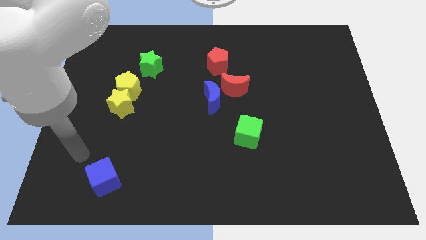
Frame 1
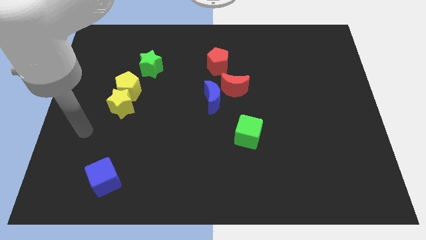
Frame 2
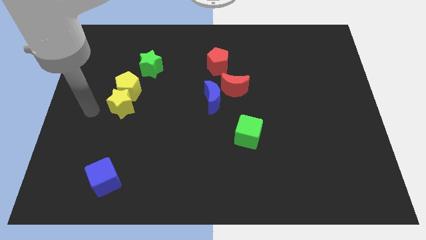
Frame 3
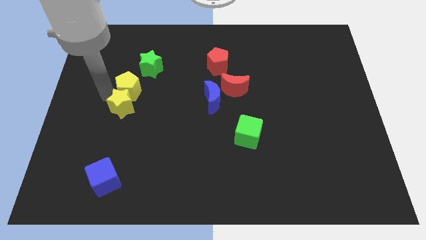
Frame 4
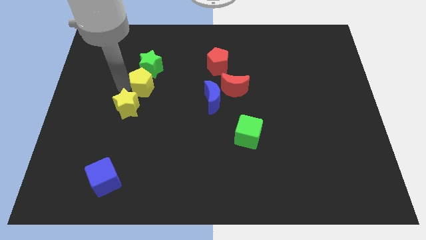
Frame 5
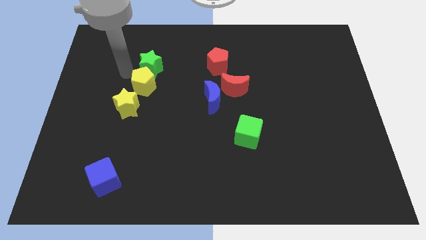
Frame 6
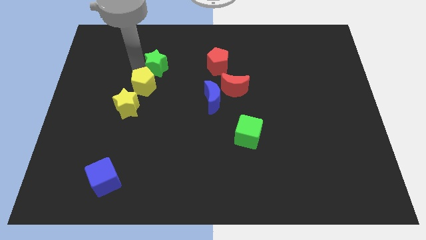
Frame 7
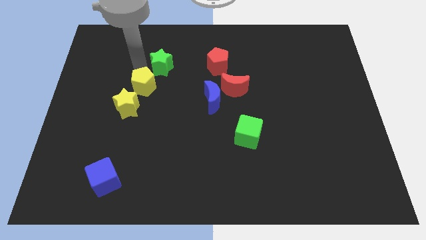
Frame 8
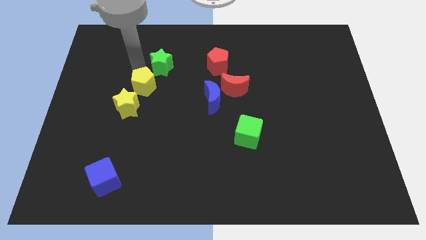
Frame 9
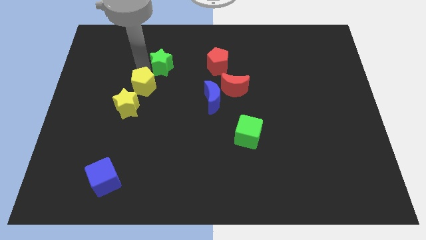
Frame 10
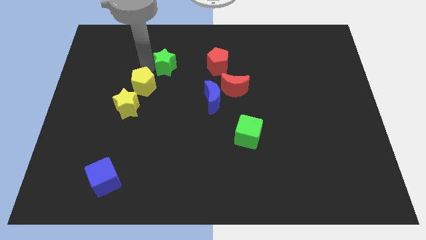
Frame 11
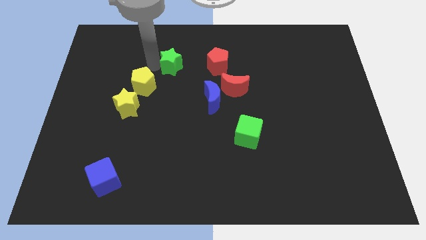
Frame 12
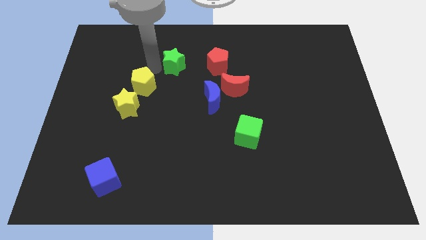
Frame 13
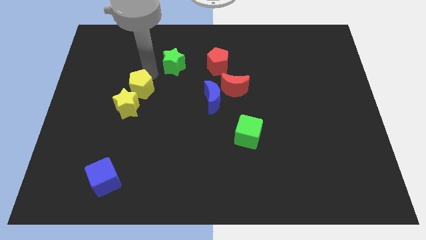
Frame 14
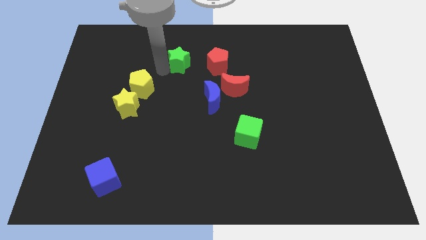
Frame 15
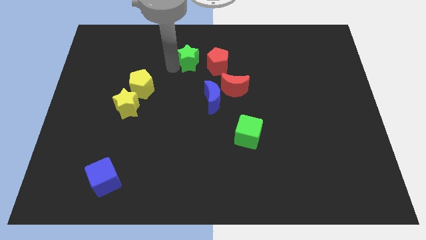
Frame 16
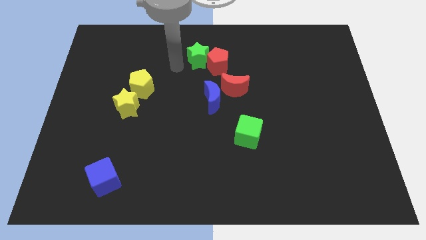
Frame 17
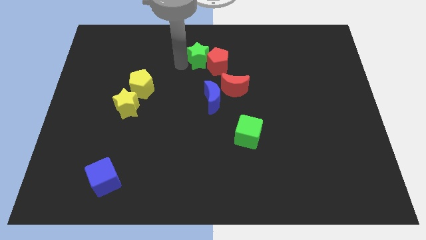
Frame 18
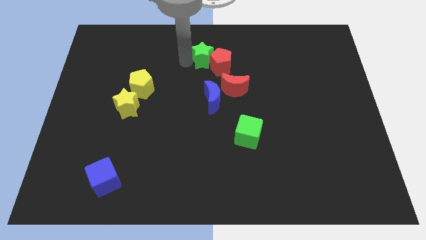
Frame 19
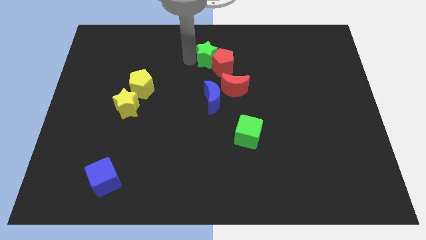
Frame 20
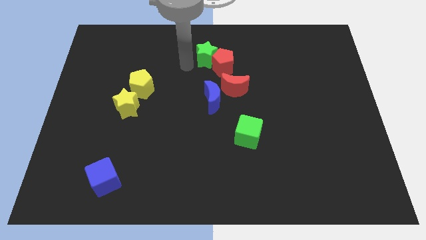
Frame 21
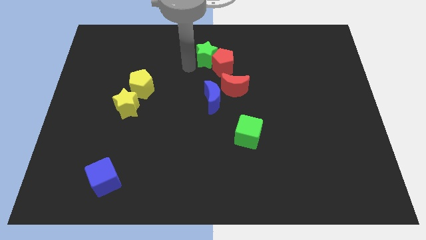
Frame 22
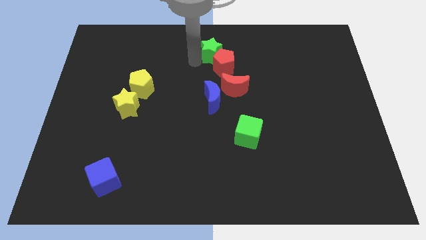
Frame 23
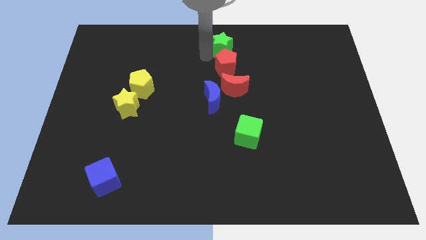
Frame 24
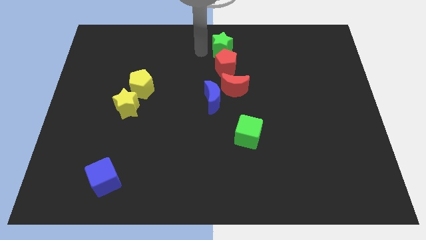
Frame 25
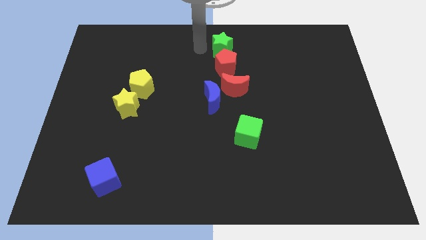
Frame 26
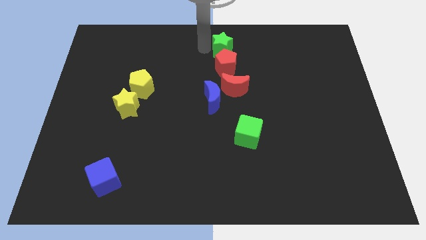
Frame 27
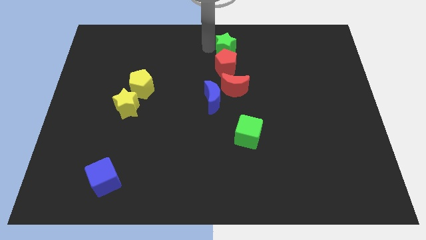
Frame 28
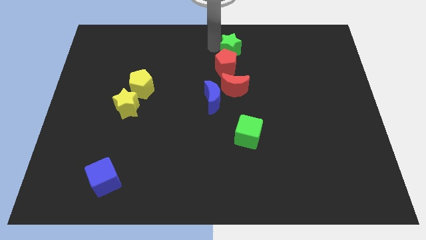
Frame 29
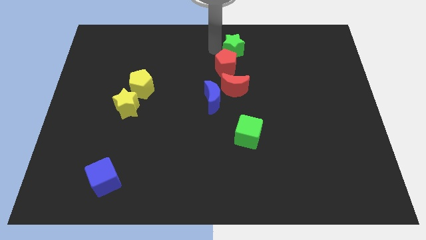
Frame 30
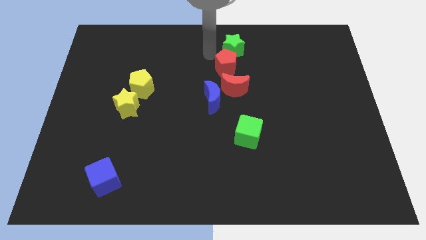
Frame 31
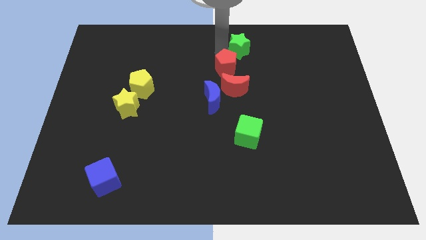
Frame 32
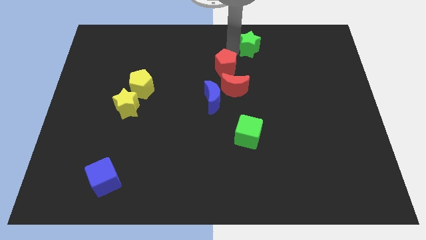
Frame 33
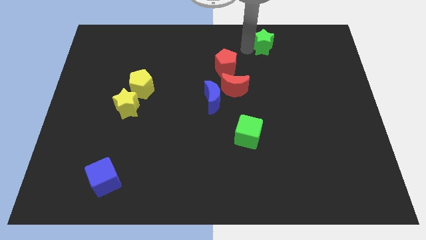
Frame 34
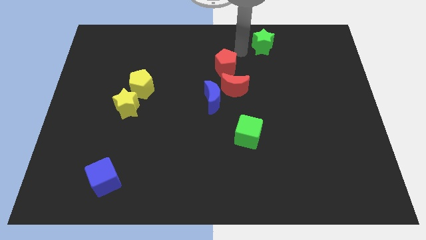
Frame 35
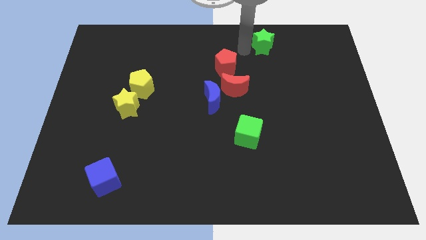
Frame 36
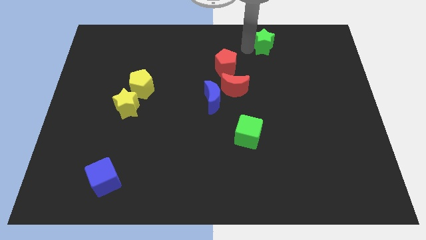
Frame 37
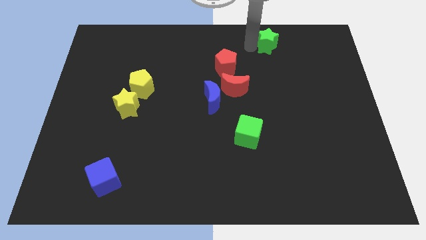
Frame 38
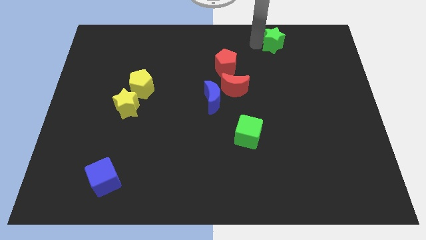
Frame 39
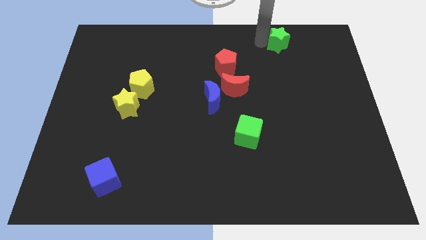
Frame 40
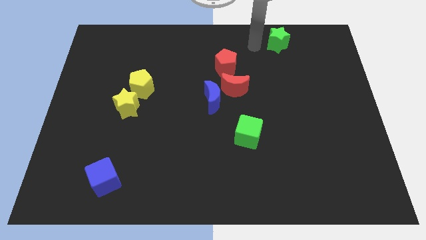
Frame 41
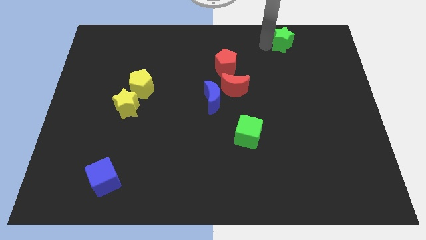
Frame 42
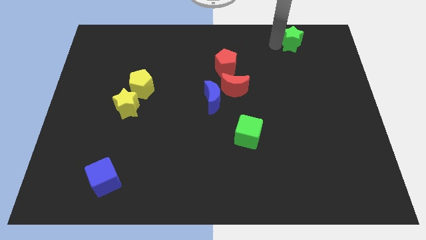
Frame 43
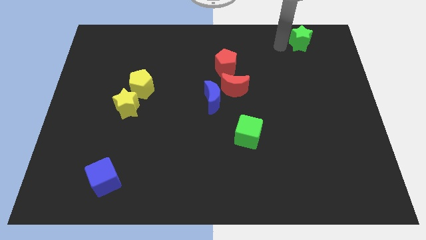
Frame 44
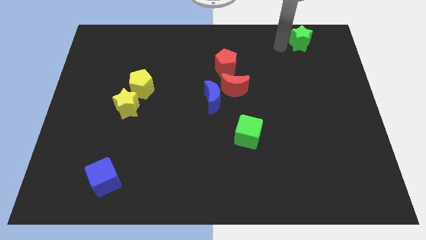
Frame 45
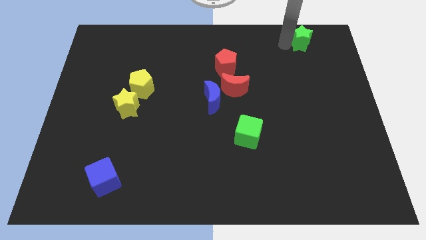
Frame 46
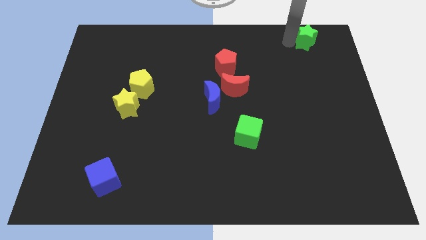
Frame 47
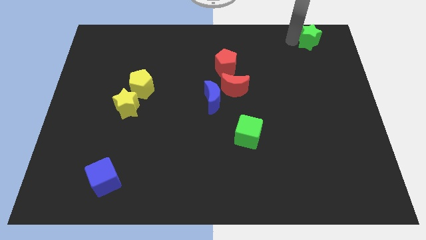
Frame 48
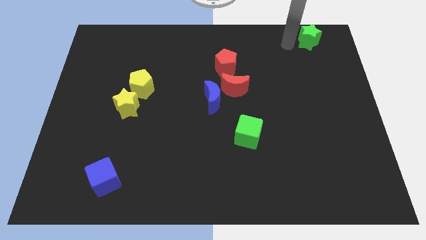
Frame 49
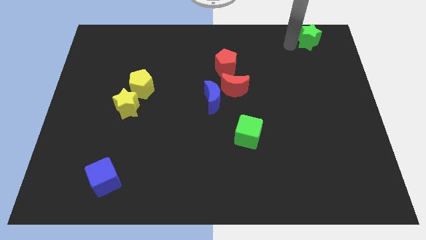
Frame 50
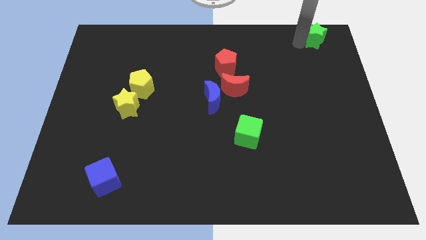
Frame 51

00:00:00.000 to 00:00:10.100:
move the green star to the top right of the board

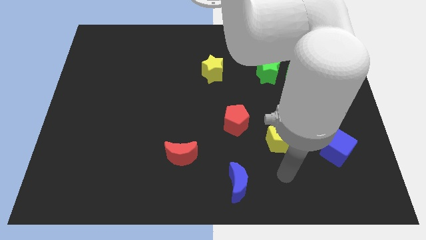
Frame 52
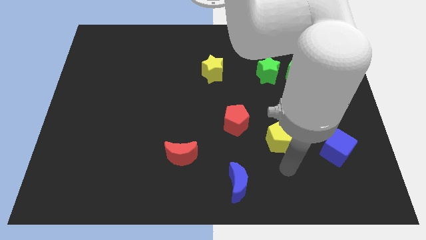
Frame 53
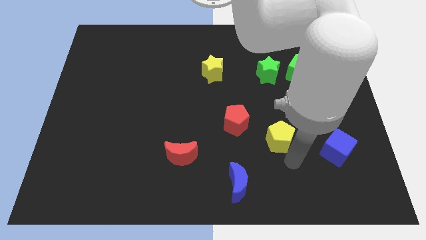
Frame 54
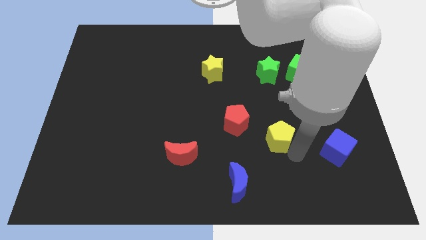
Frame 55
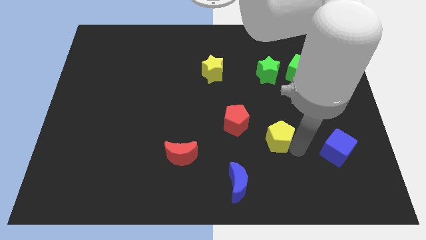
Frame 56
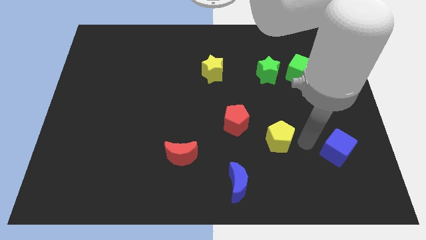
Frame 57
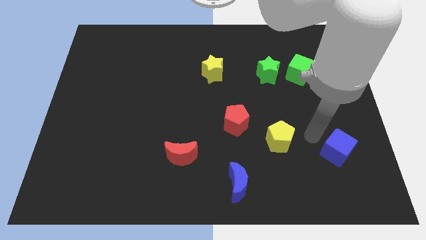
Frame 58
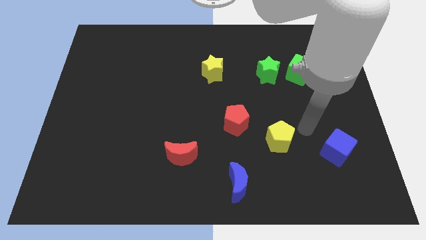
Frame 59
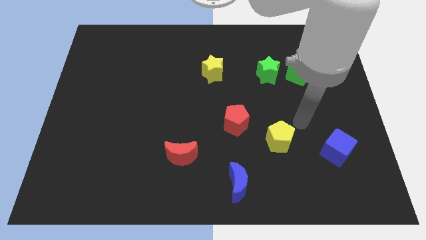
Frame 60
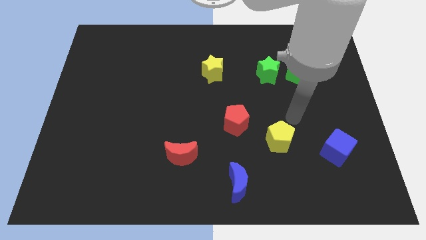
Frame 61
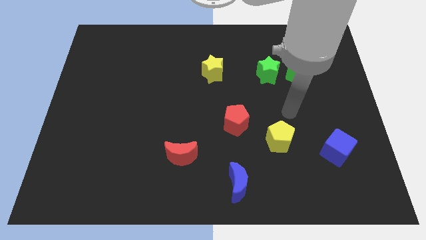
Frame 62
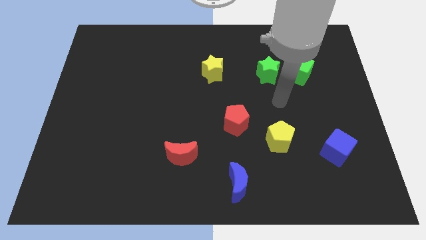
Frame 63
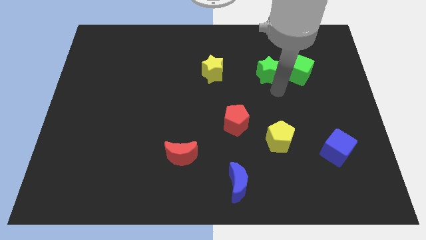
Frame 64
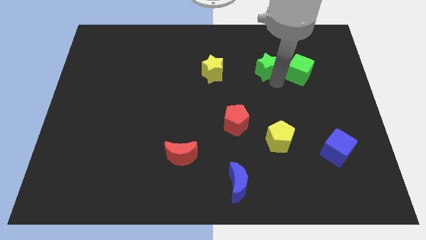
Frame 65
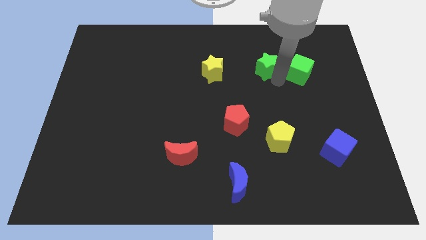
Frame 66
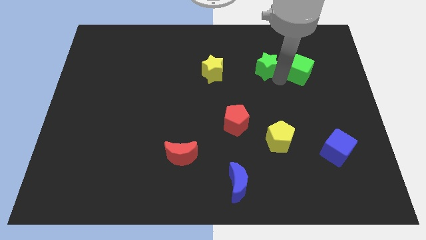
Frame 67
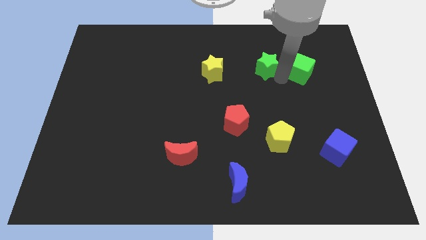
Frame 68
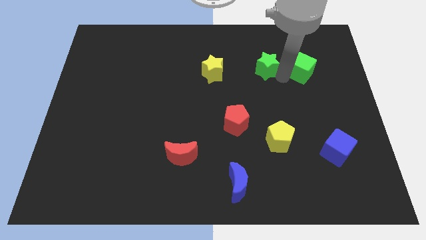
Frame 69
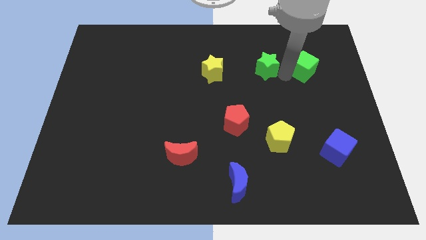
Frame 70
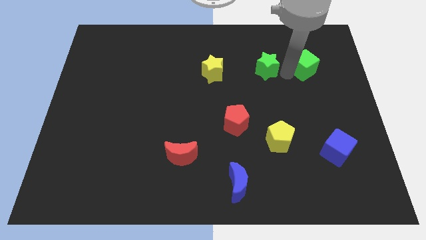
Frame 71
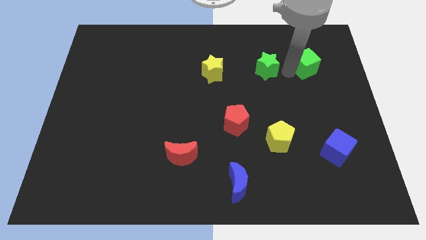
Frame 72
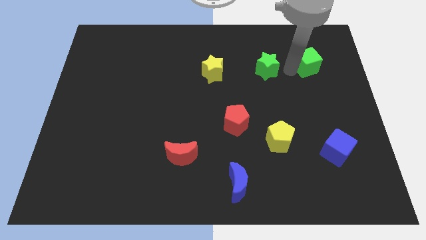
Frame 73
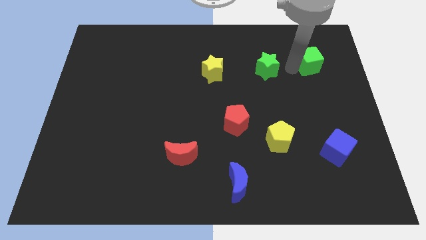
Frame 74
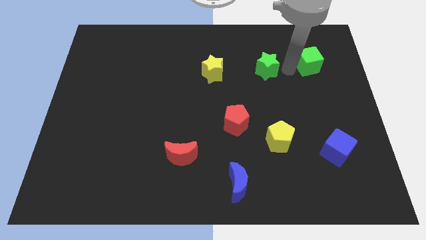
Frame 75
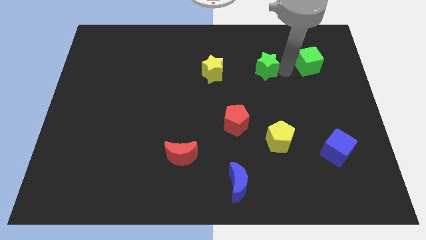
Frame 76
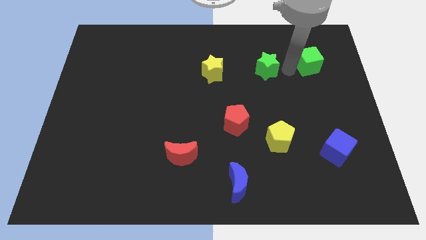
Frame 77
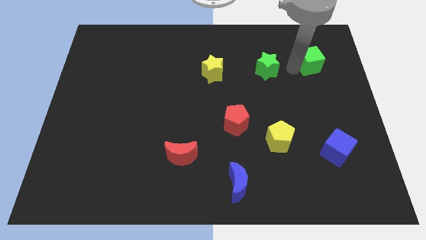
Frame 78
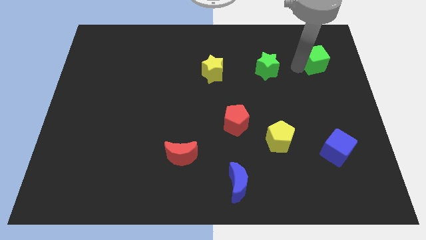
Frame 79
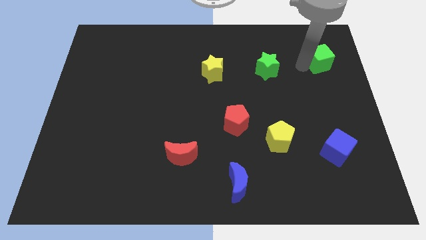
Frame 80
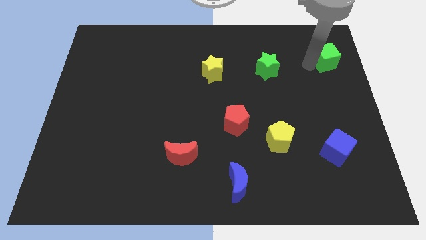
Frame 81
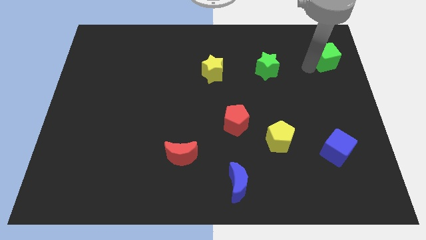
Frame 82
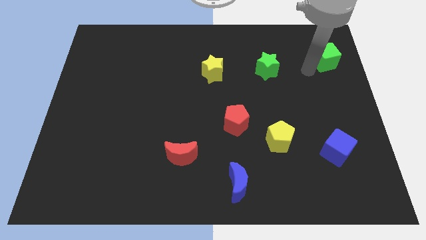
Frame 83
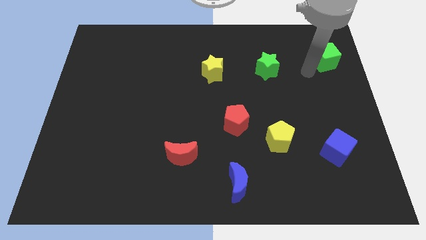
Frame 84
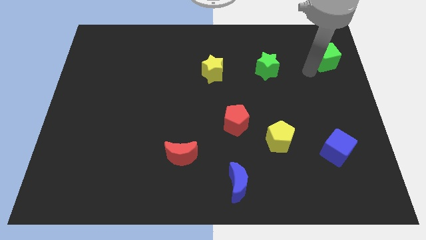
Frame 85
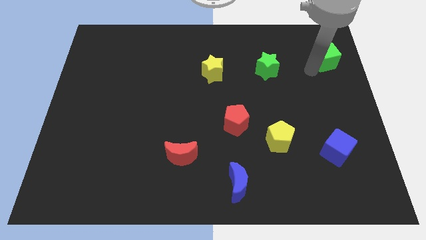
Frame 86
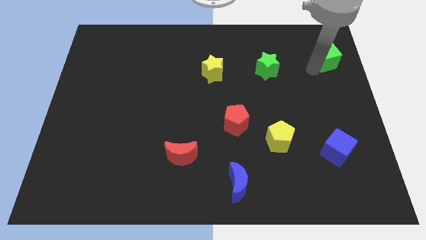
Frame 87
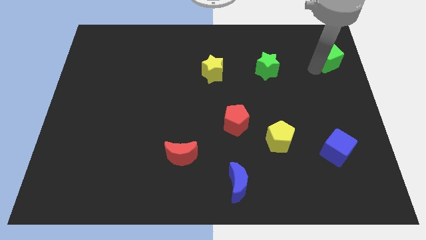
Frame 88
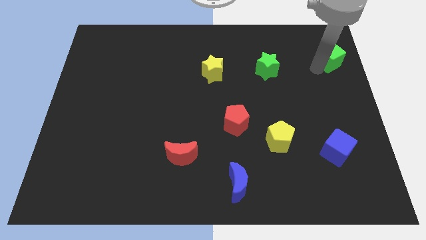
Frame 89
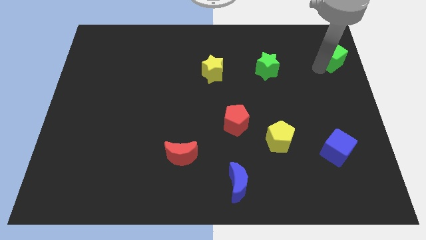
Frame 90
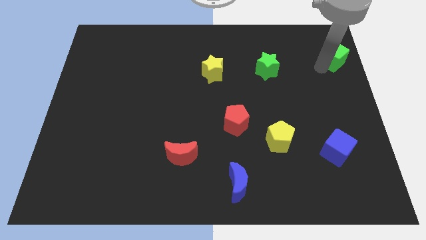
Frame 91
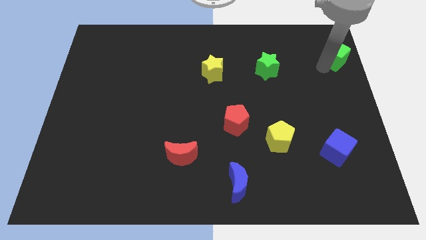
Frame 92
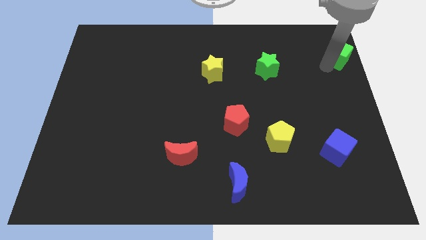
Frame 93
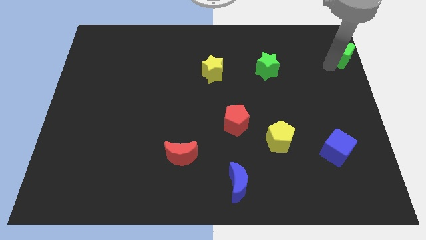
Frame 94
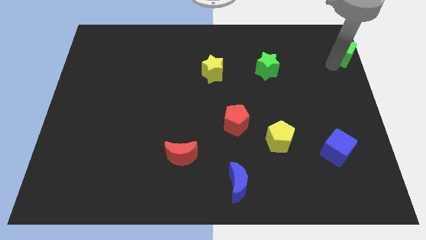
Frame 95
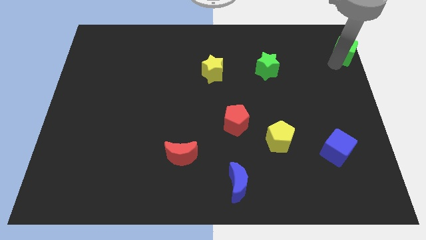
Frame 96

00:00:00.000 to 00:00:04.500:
move the green cube to the upper right corner
